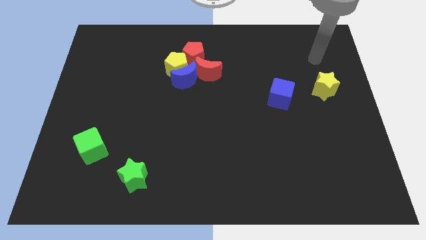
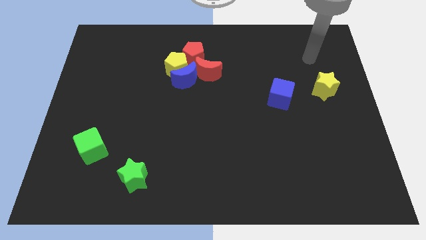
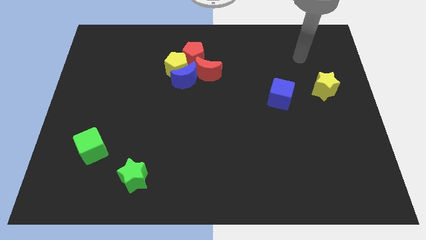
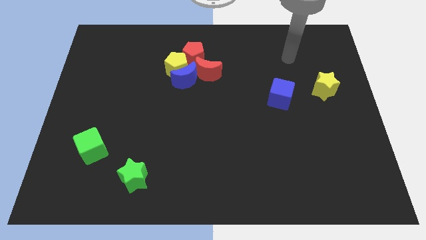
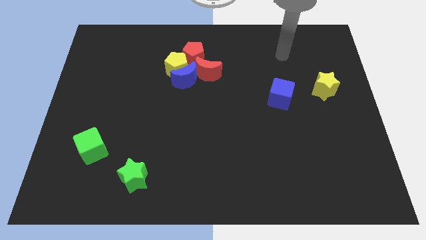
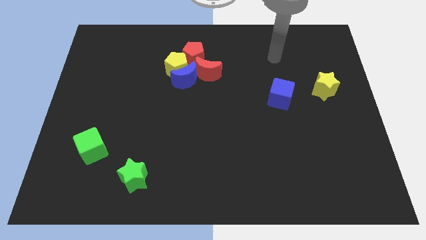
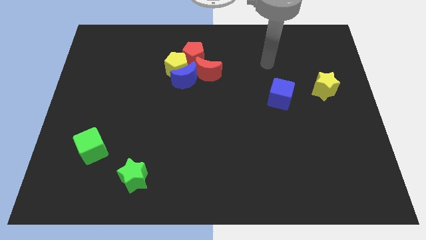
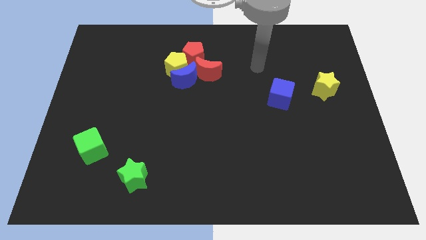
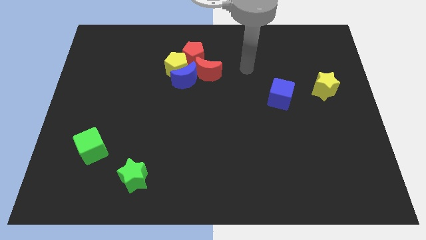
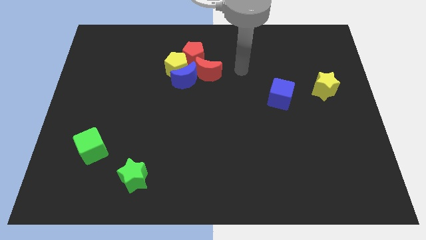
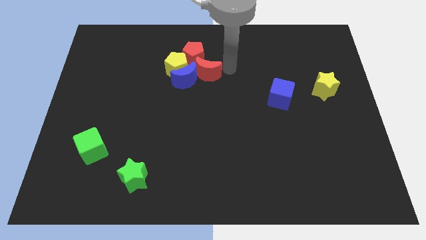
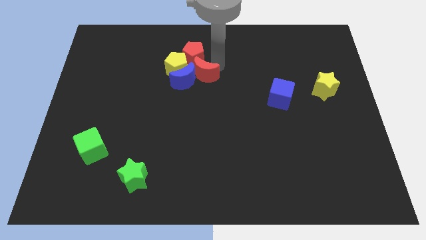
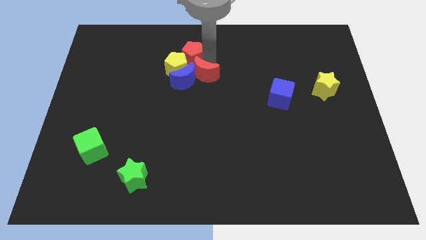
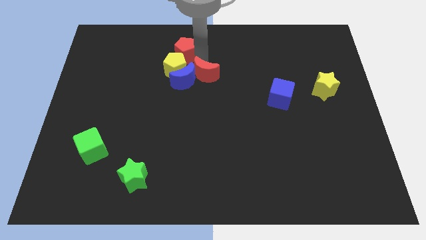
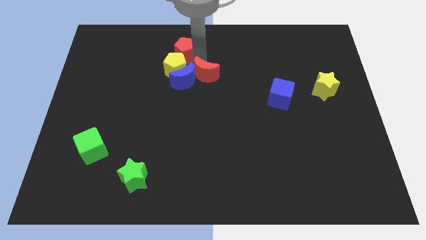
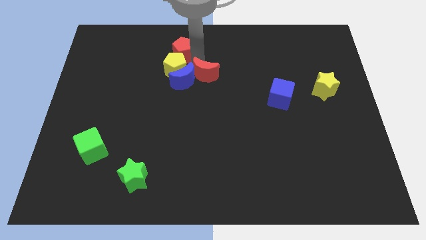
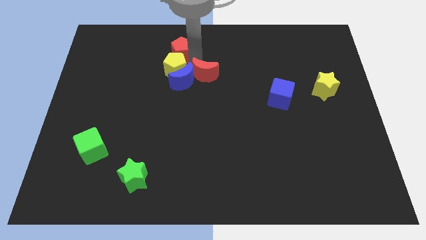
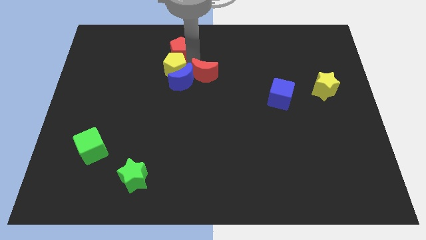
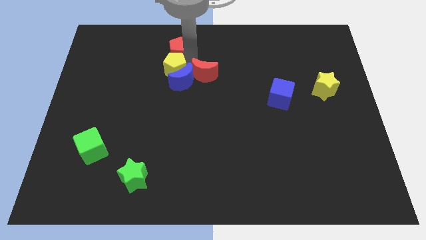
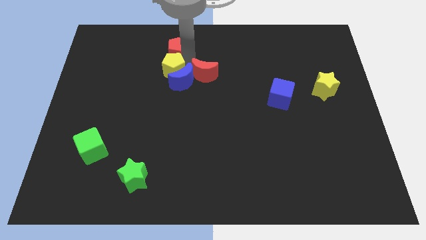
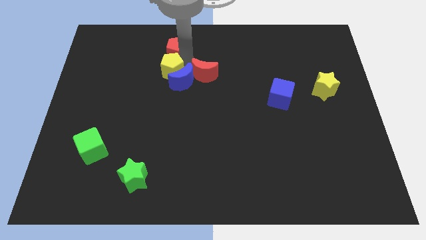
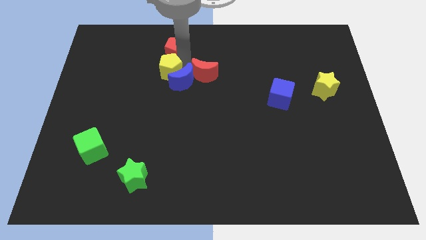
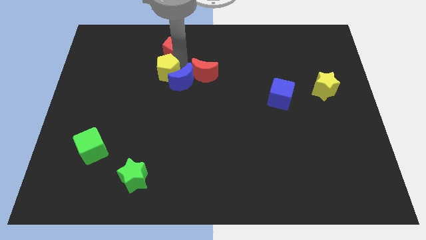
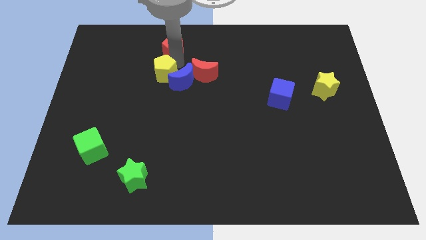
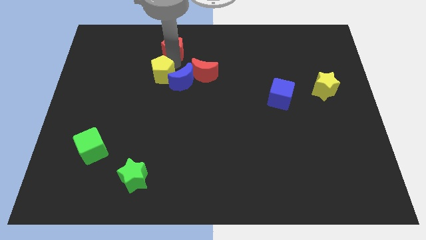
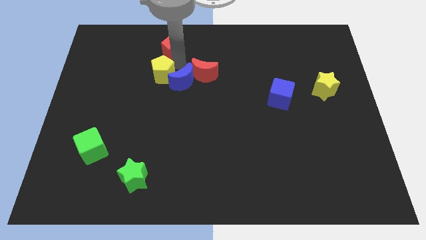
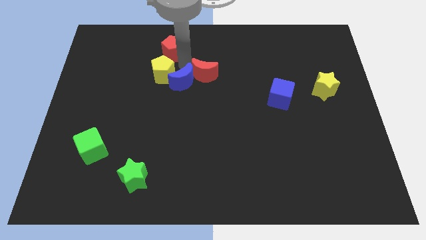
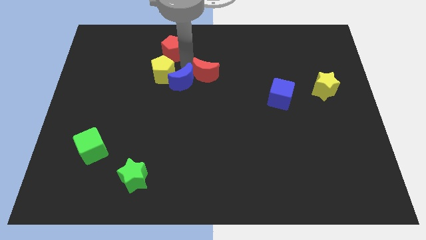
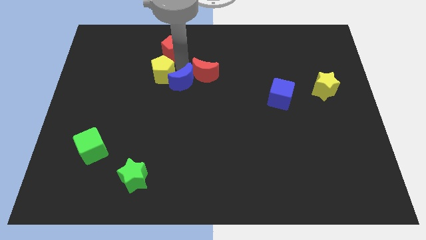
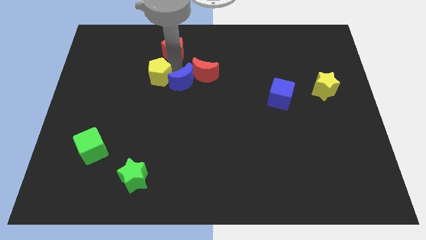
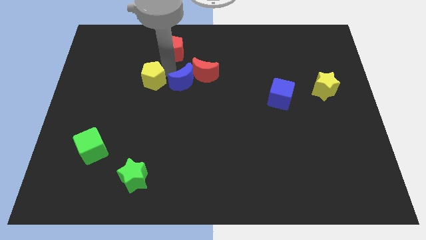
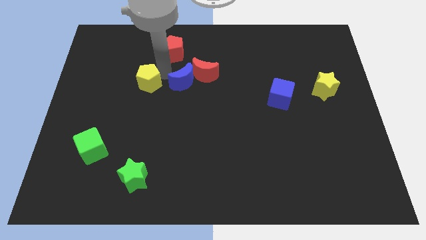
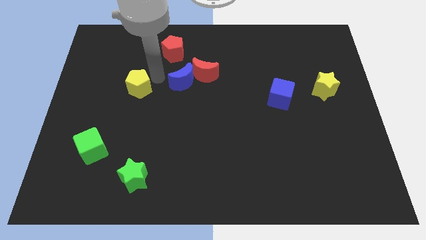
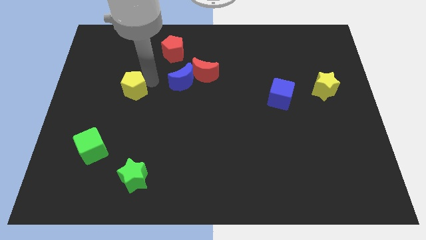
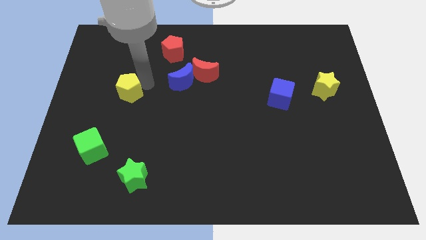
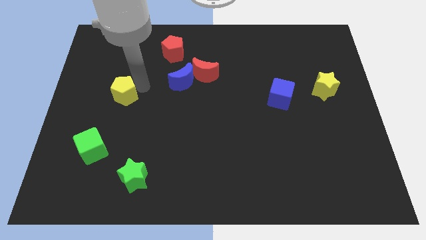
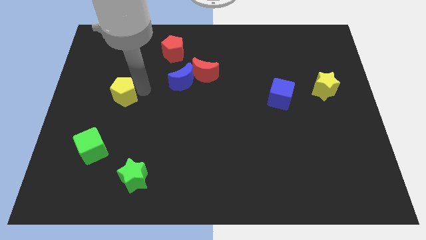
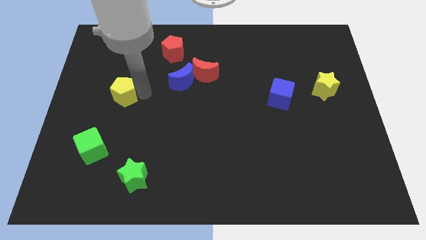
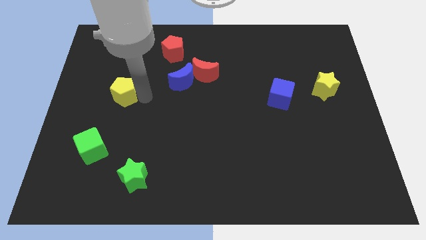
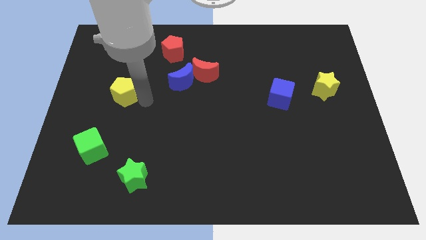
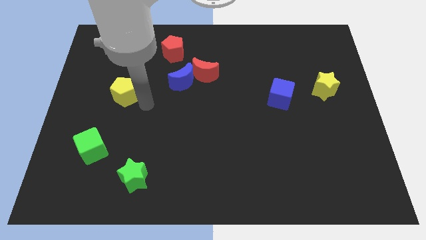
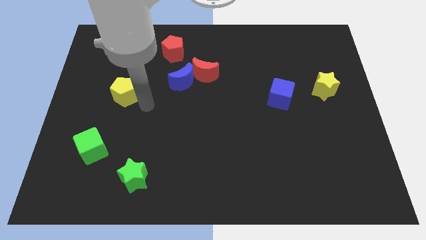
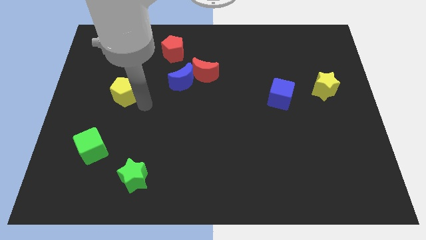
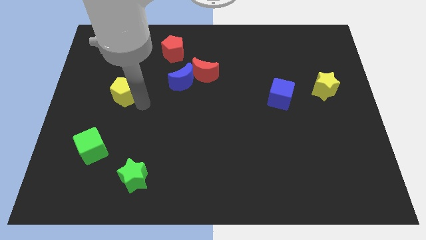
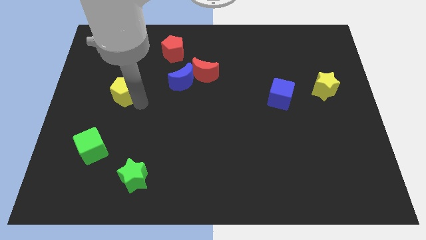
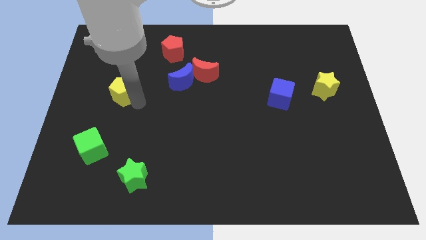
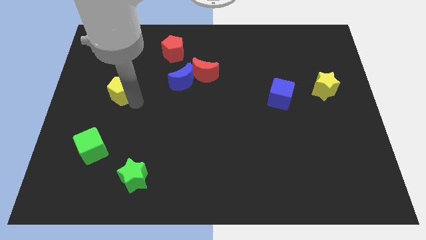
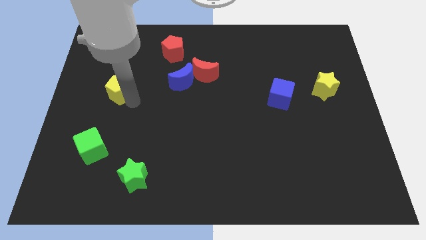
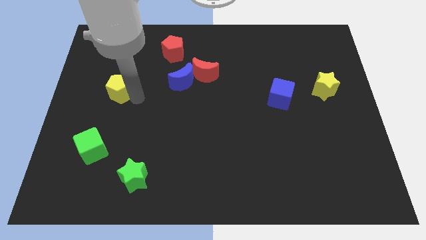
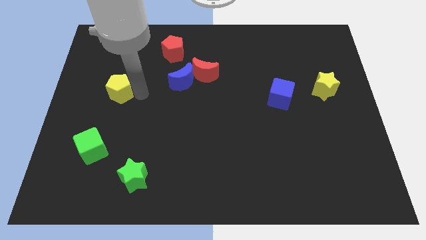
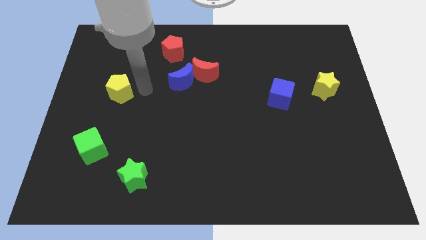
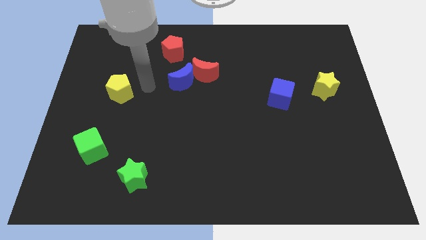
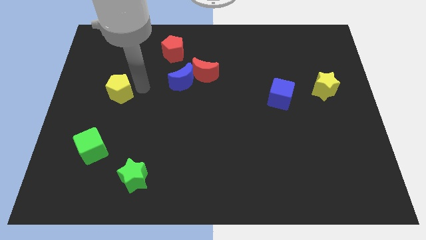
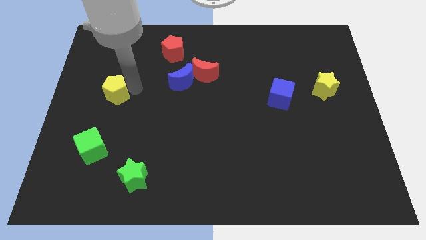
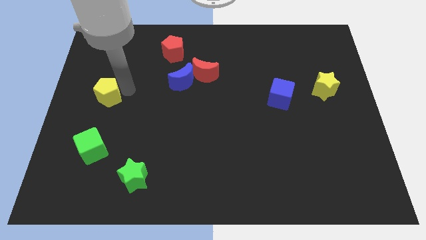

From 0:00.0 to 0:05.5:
put the yellow pentagon to the left side of the board

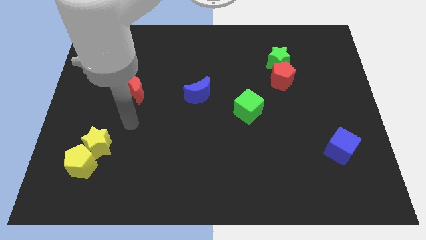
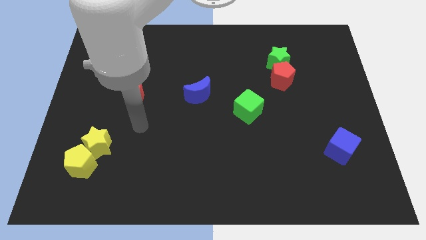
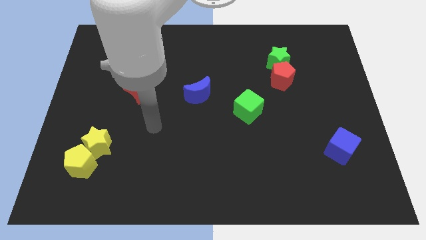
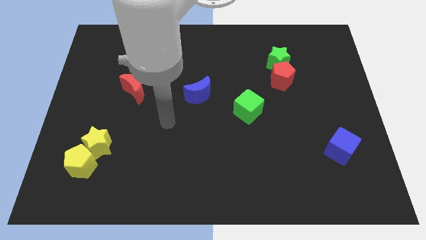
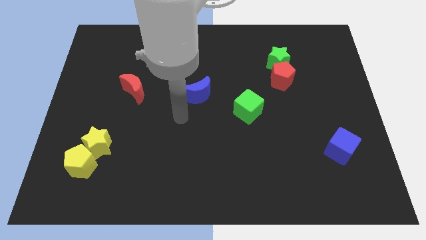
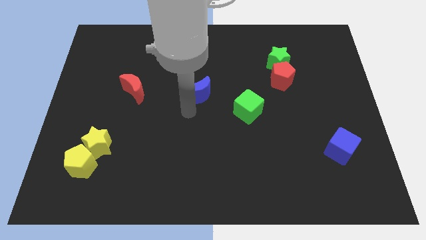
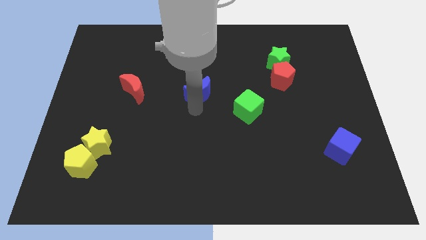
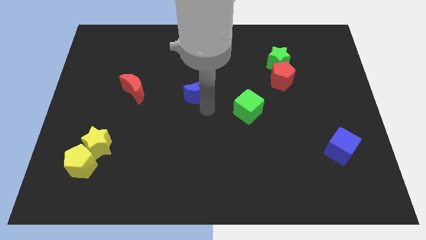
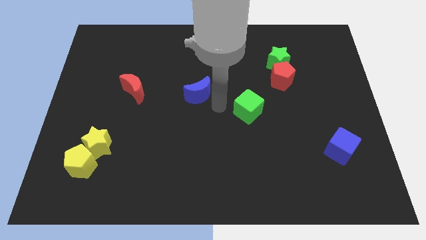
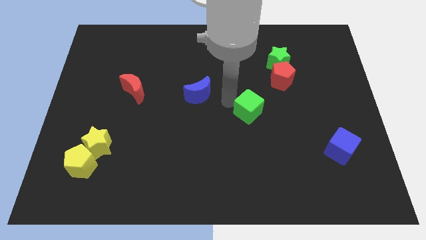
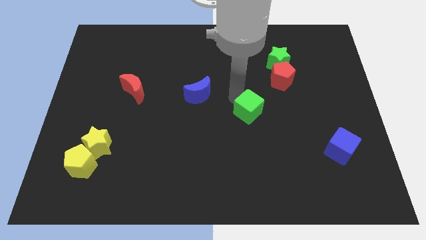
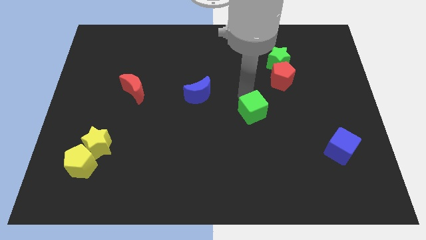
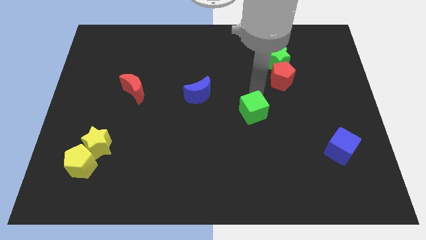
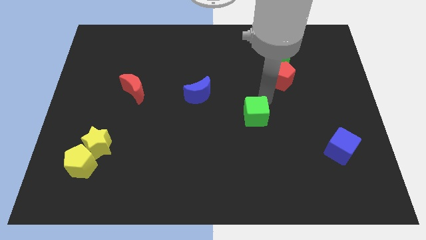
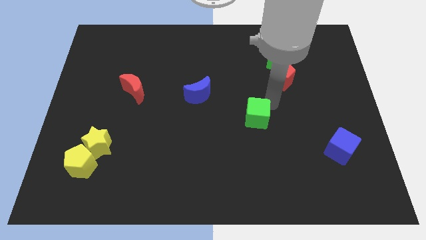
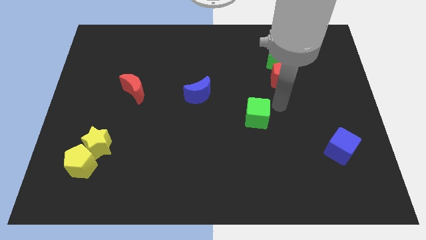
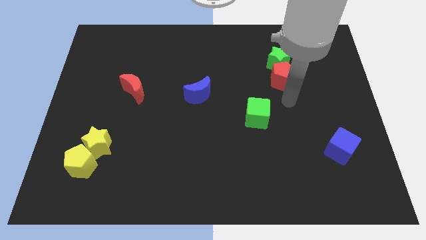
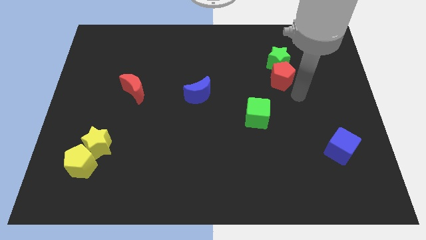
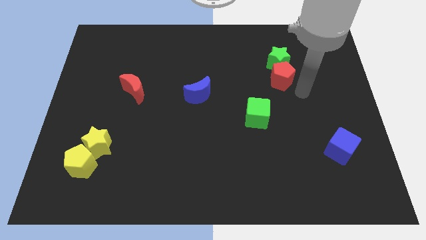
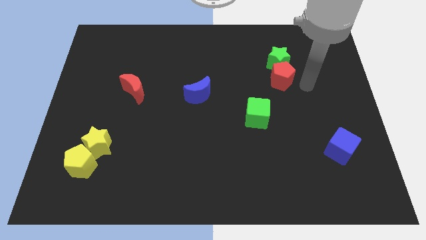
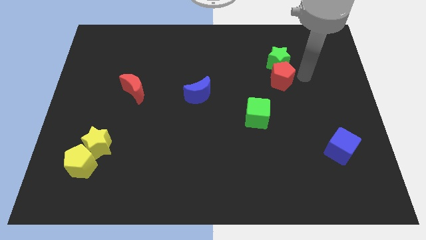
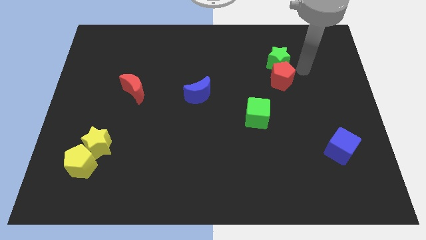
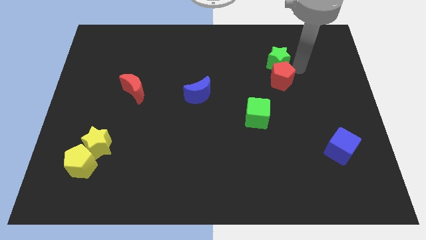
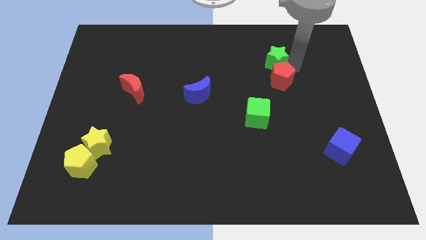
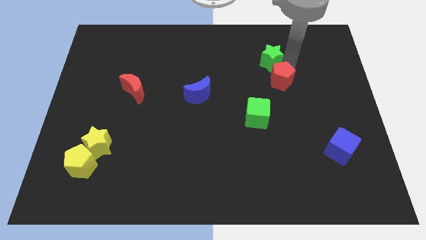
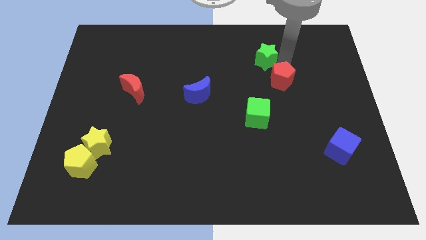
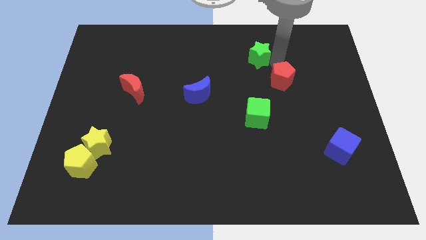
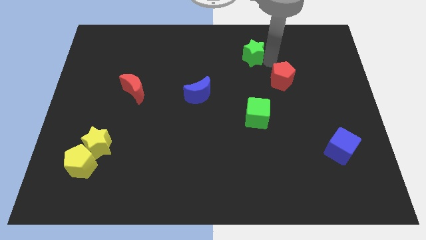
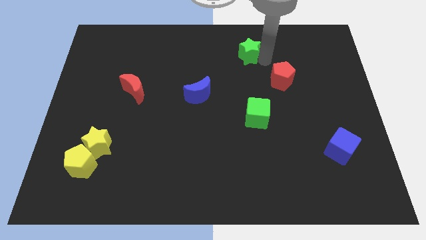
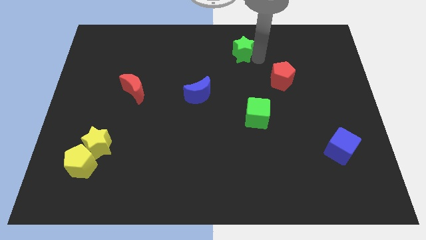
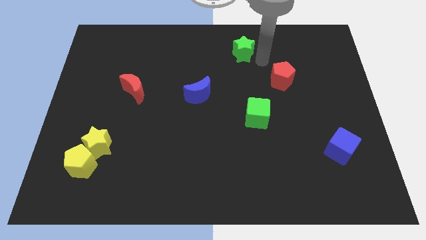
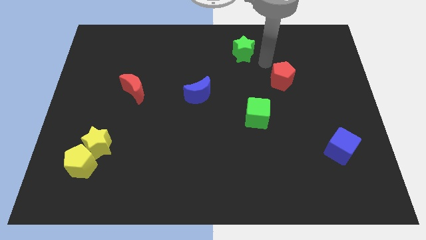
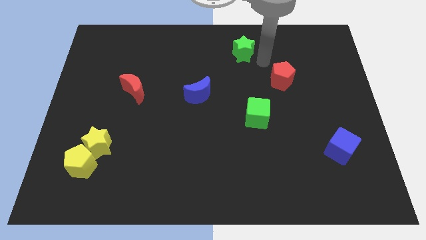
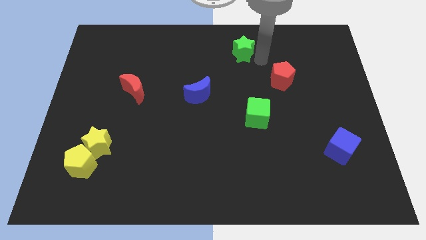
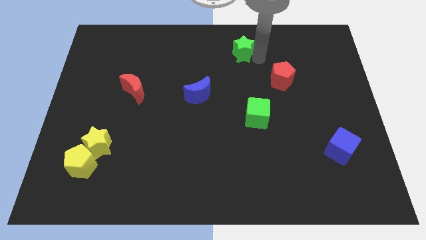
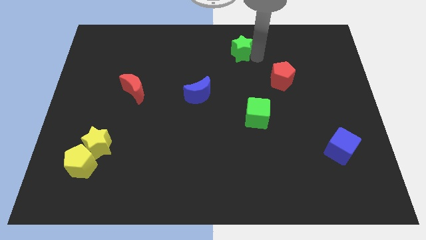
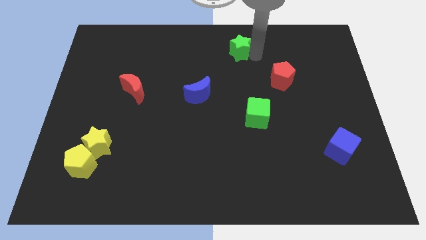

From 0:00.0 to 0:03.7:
put the green star to the top side
